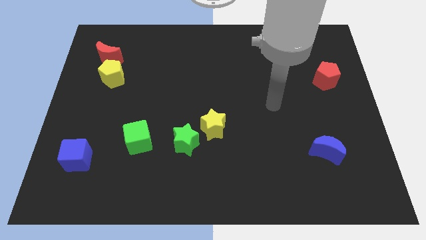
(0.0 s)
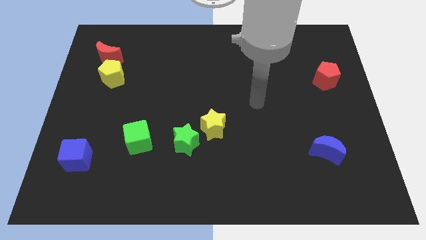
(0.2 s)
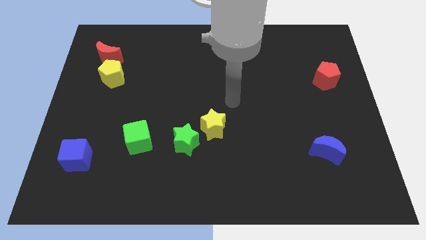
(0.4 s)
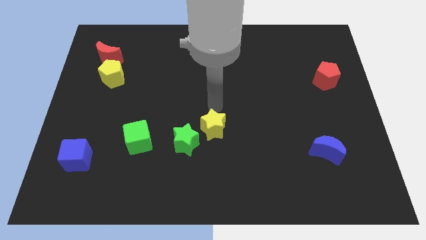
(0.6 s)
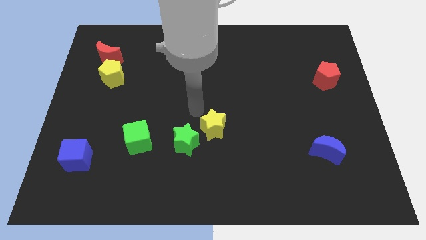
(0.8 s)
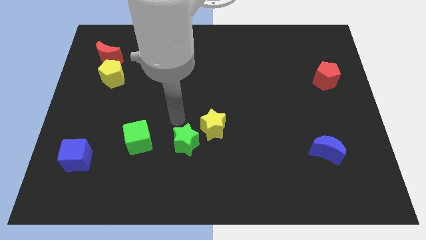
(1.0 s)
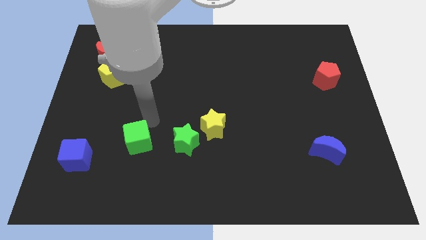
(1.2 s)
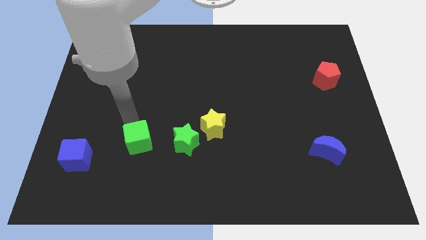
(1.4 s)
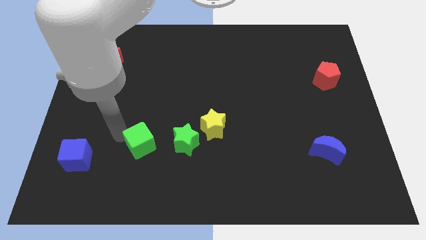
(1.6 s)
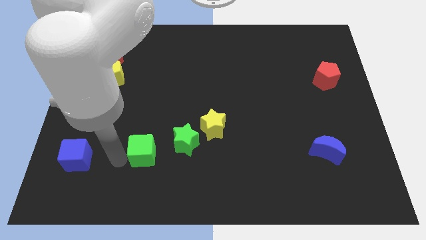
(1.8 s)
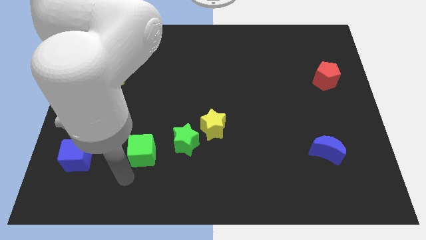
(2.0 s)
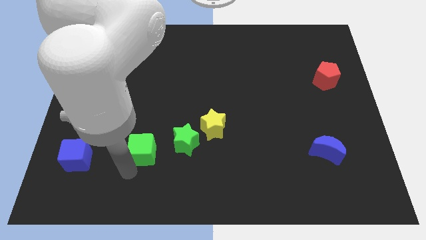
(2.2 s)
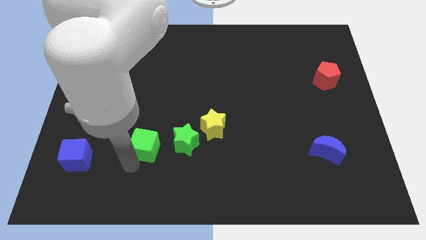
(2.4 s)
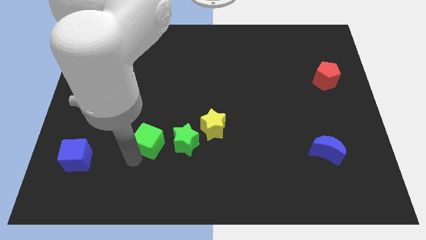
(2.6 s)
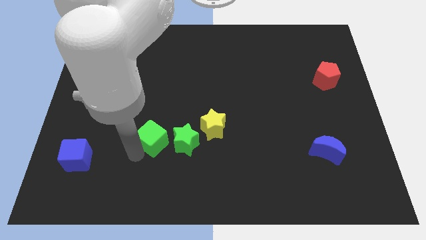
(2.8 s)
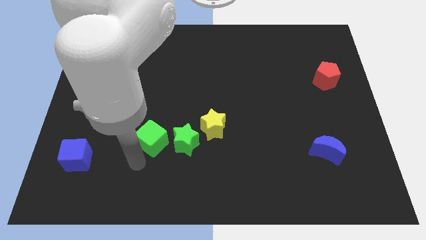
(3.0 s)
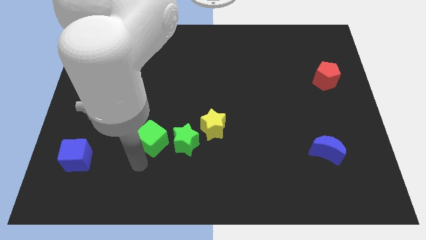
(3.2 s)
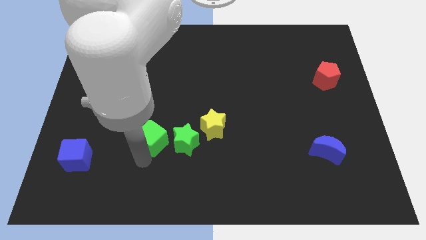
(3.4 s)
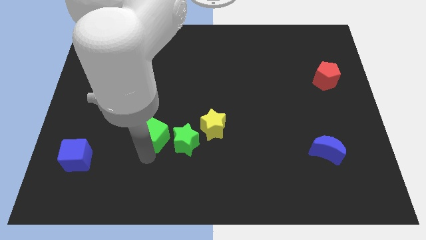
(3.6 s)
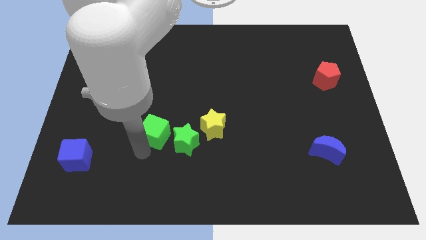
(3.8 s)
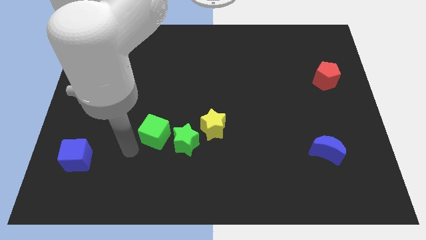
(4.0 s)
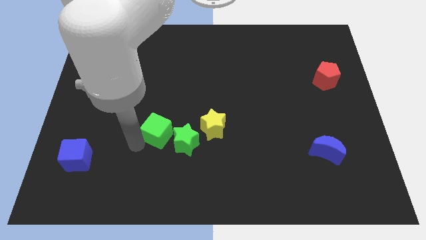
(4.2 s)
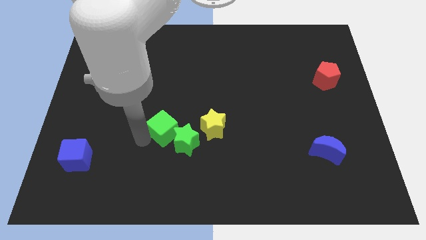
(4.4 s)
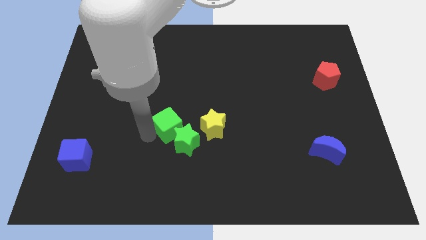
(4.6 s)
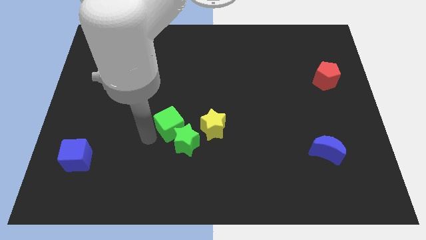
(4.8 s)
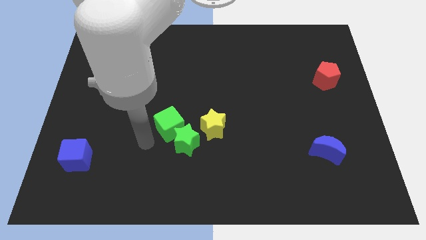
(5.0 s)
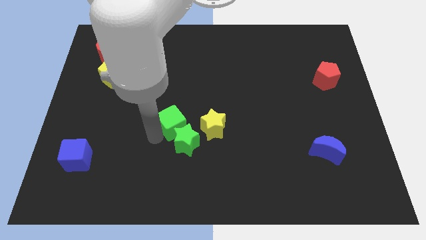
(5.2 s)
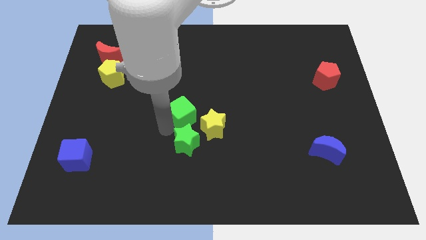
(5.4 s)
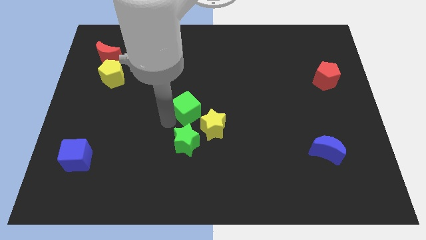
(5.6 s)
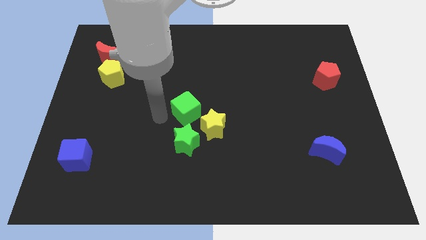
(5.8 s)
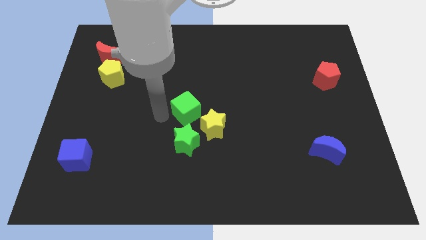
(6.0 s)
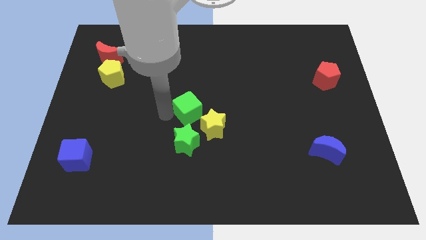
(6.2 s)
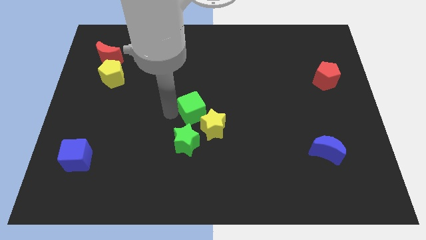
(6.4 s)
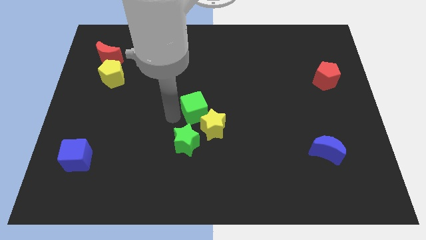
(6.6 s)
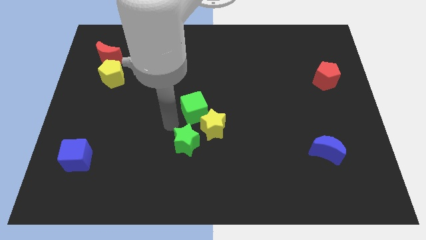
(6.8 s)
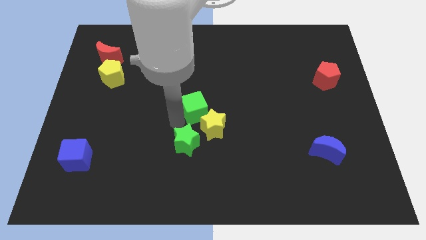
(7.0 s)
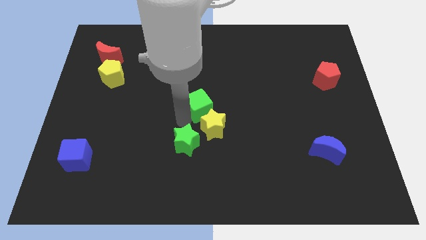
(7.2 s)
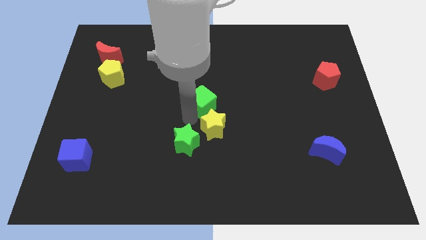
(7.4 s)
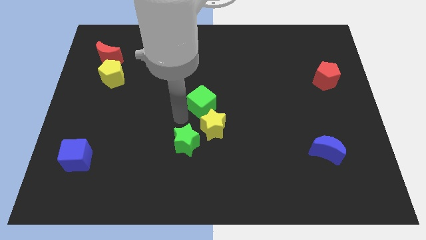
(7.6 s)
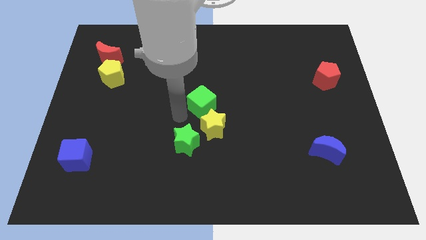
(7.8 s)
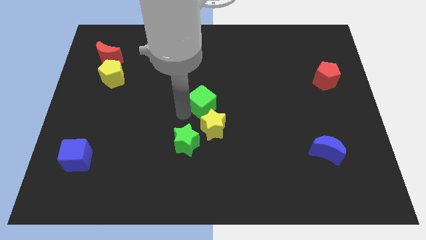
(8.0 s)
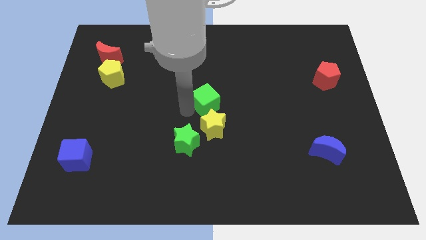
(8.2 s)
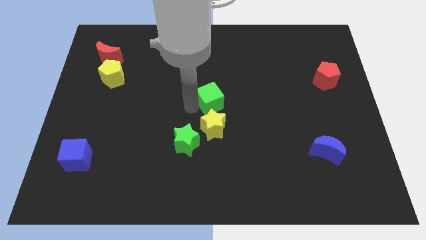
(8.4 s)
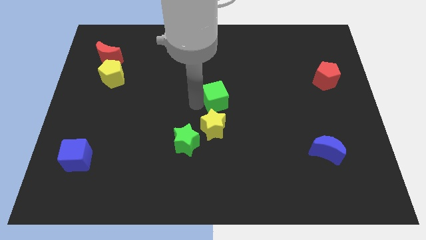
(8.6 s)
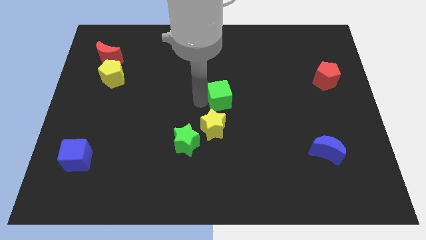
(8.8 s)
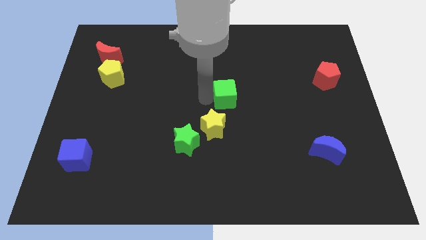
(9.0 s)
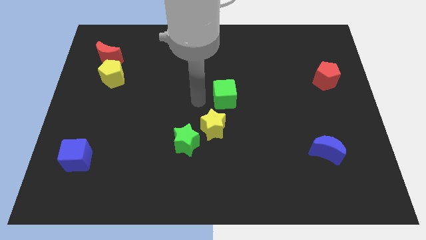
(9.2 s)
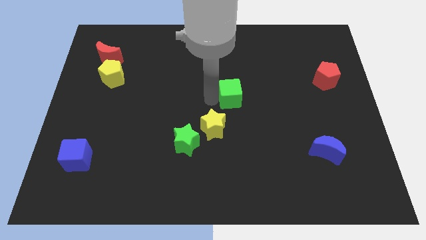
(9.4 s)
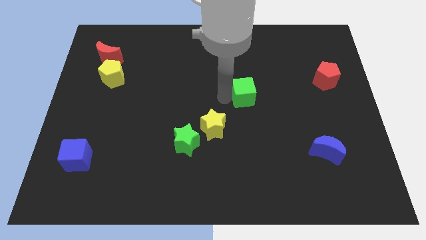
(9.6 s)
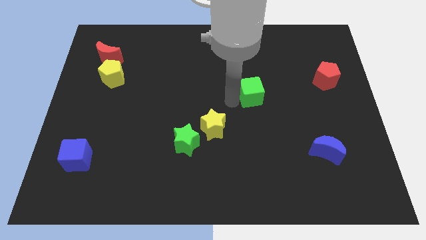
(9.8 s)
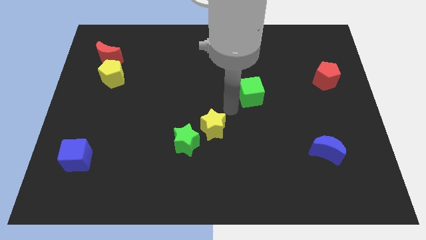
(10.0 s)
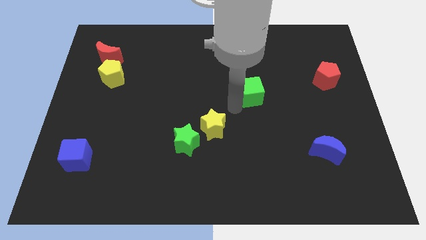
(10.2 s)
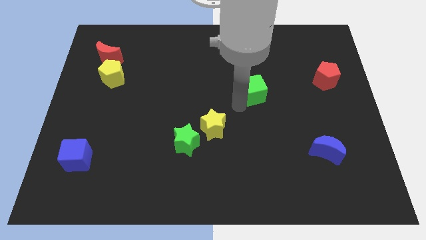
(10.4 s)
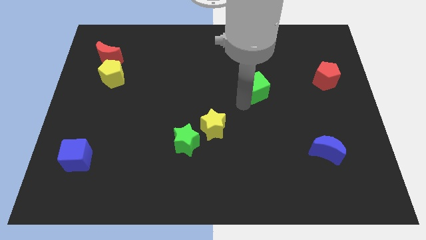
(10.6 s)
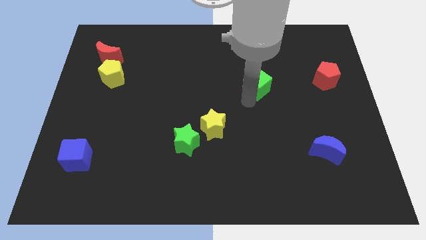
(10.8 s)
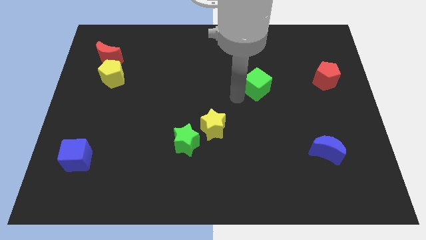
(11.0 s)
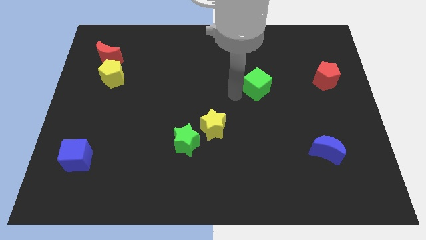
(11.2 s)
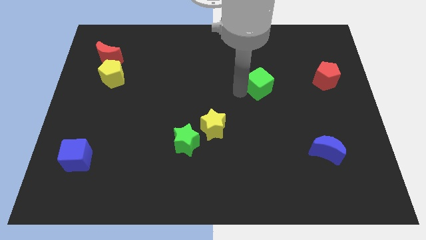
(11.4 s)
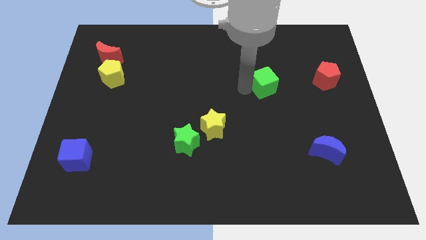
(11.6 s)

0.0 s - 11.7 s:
move the green cube to the left of the red pentagon

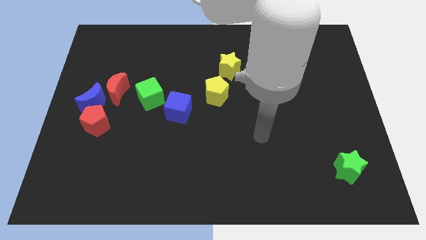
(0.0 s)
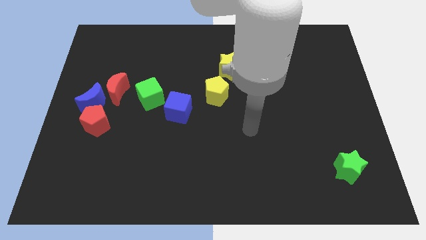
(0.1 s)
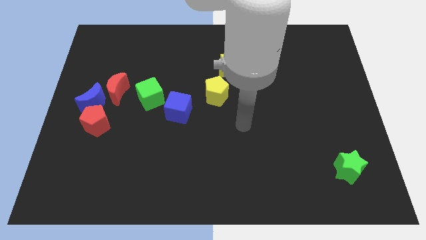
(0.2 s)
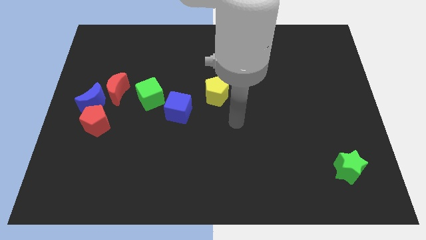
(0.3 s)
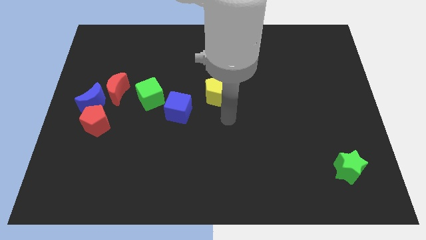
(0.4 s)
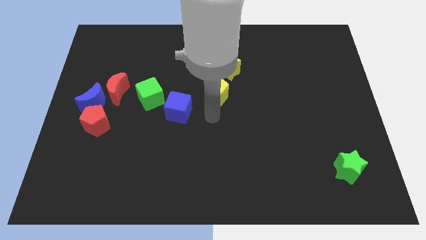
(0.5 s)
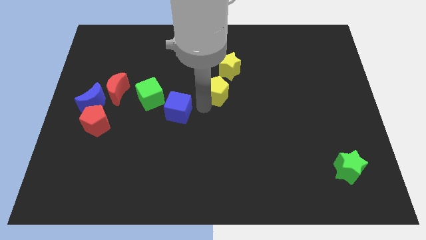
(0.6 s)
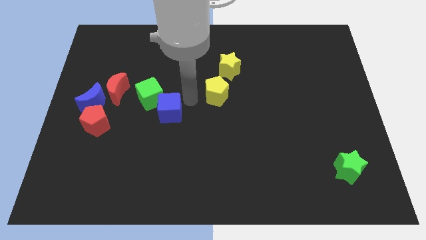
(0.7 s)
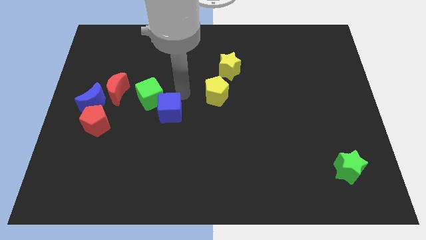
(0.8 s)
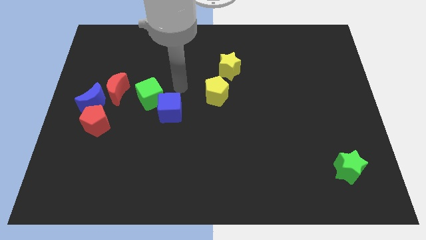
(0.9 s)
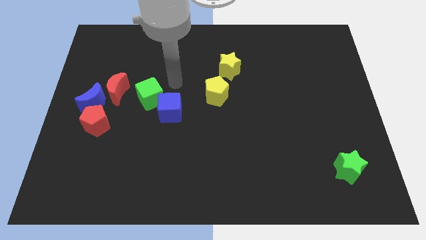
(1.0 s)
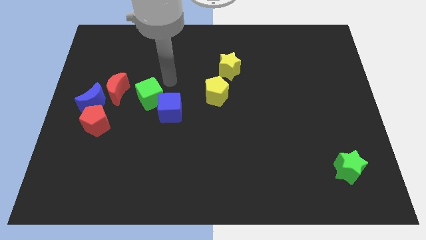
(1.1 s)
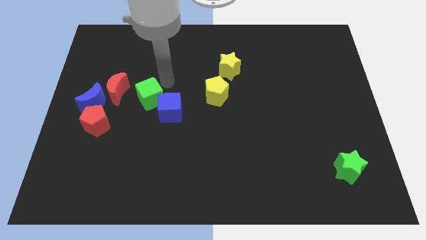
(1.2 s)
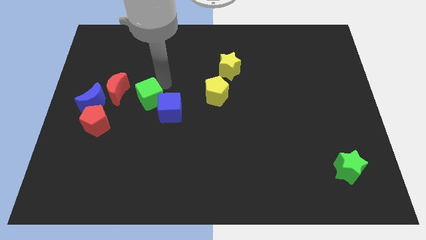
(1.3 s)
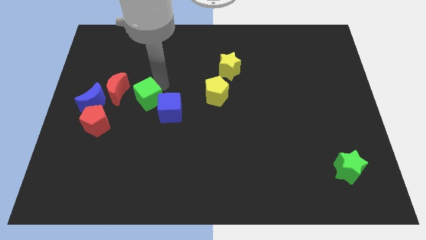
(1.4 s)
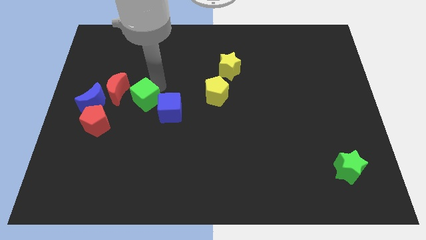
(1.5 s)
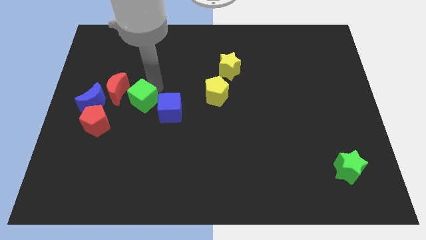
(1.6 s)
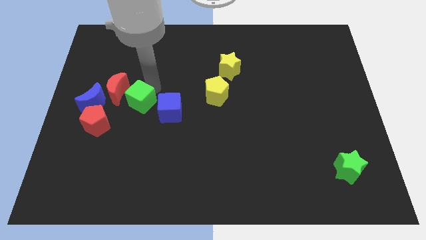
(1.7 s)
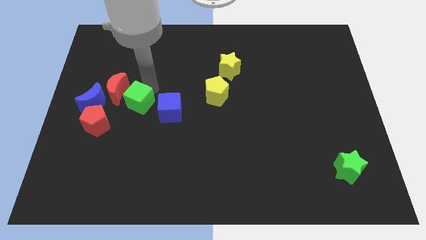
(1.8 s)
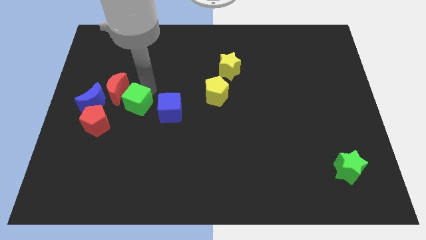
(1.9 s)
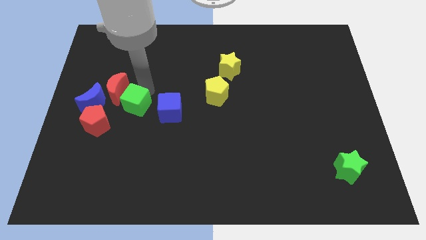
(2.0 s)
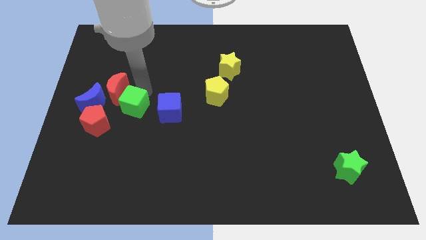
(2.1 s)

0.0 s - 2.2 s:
push the green cube to the bottom of the red moon
